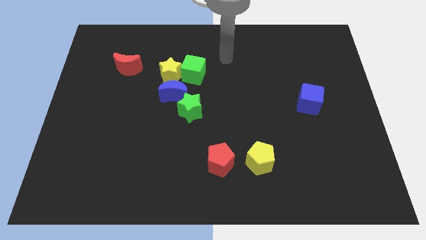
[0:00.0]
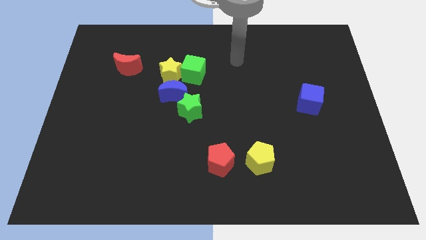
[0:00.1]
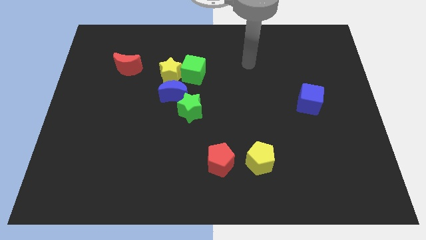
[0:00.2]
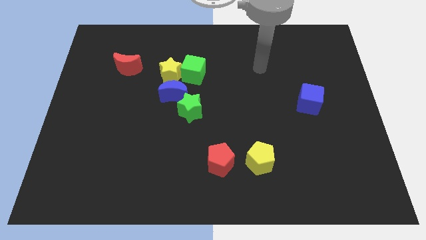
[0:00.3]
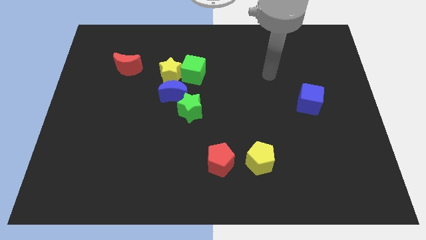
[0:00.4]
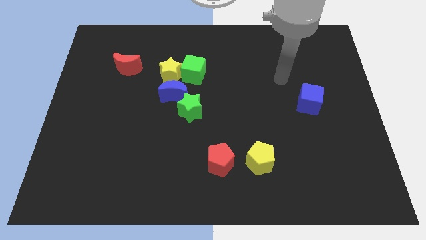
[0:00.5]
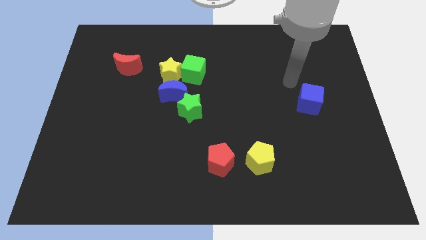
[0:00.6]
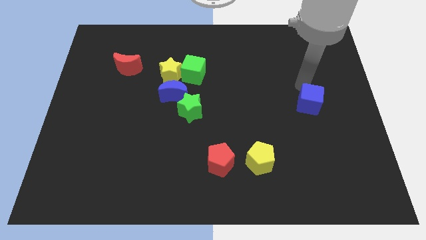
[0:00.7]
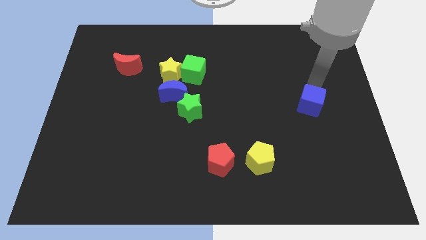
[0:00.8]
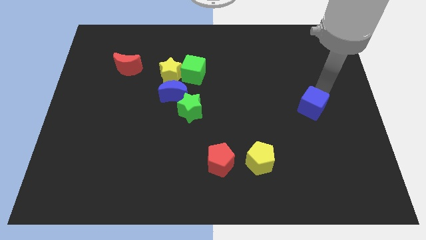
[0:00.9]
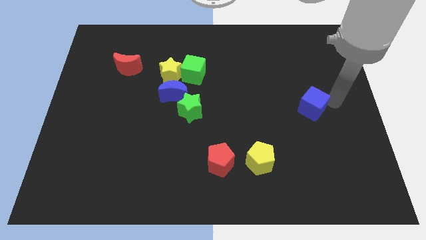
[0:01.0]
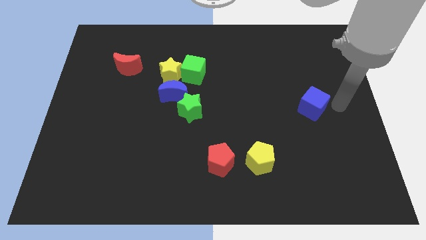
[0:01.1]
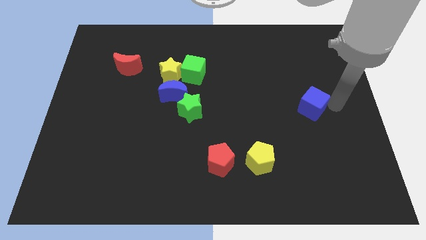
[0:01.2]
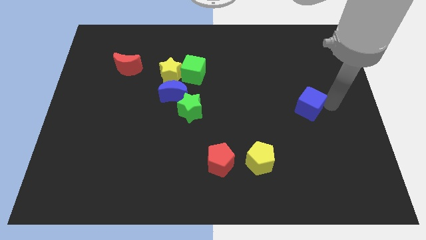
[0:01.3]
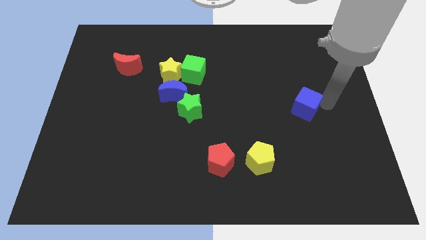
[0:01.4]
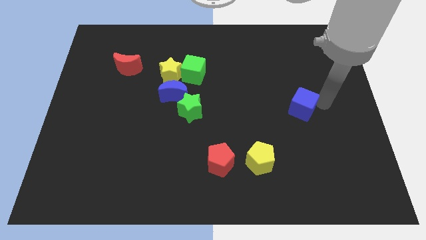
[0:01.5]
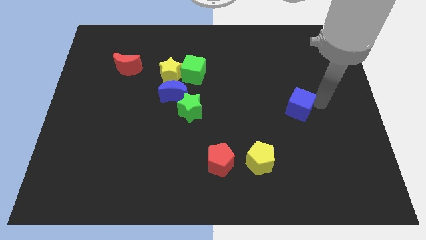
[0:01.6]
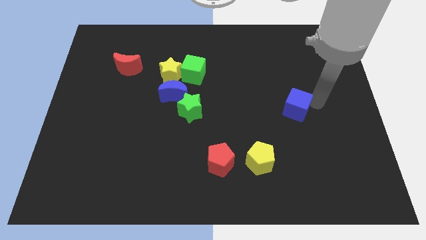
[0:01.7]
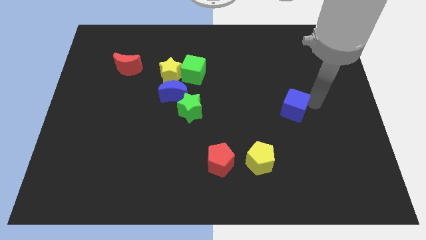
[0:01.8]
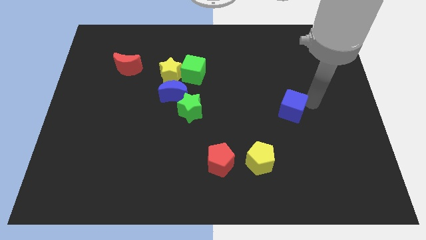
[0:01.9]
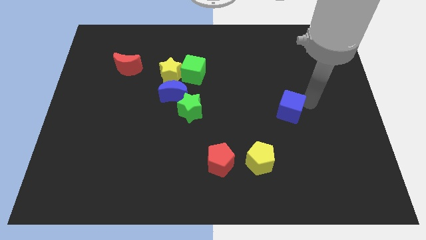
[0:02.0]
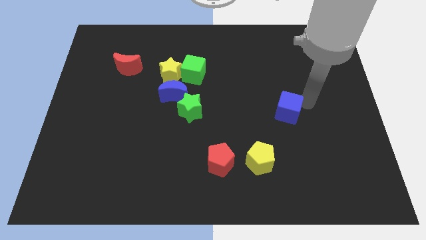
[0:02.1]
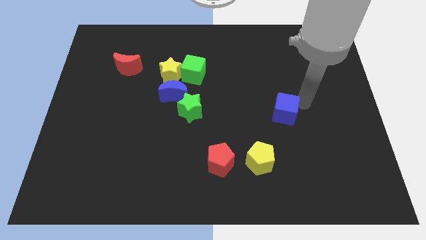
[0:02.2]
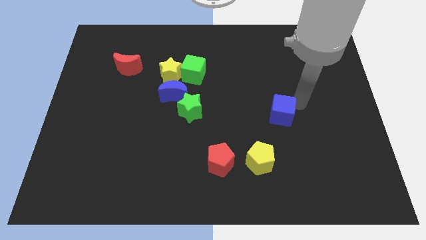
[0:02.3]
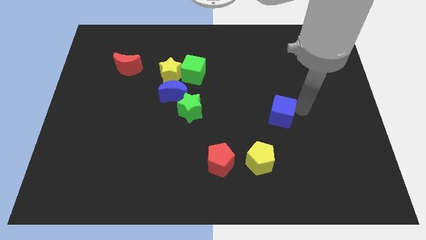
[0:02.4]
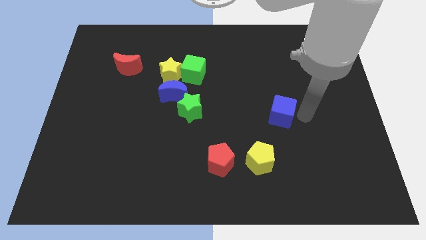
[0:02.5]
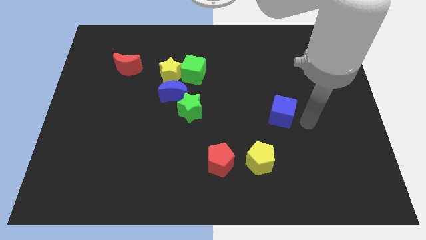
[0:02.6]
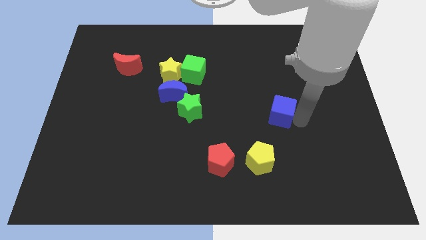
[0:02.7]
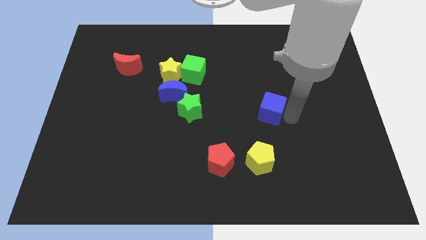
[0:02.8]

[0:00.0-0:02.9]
slightly move the blue cube left

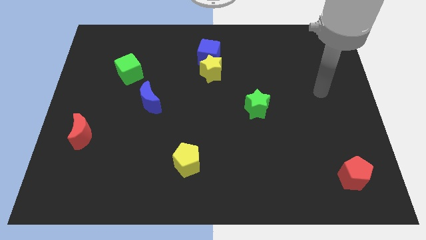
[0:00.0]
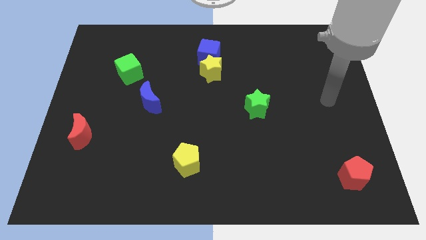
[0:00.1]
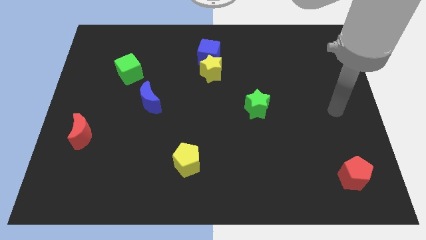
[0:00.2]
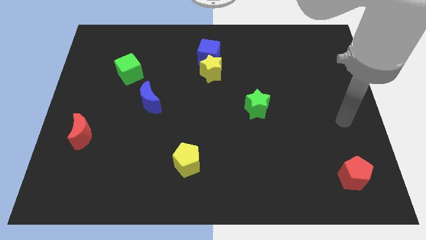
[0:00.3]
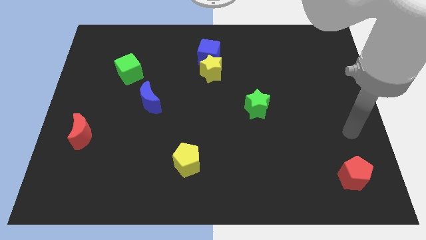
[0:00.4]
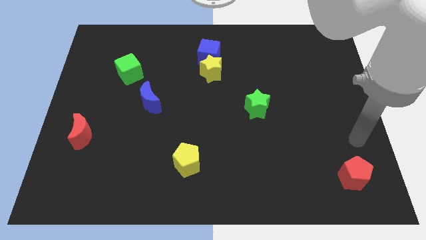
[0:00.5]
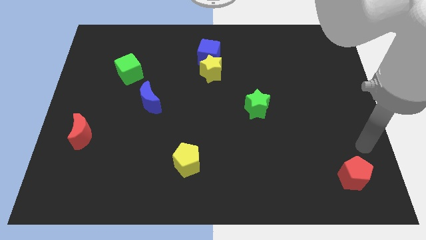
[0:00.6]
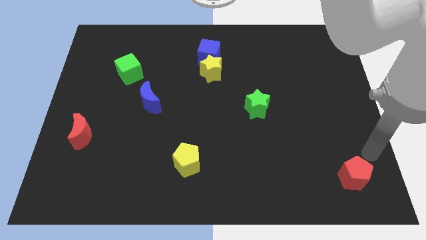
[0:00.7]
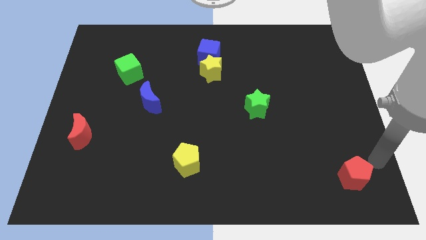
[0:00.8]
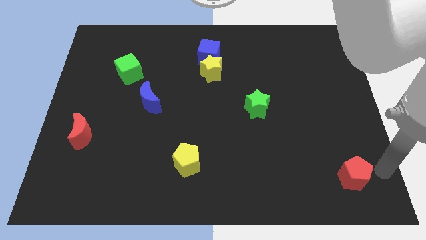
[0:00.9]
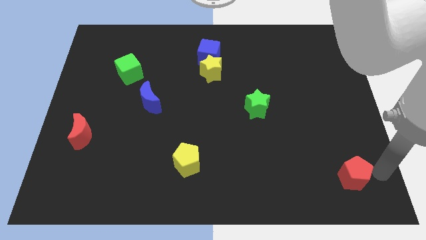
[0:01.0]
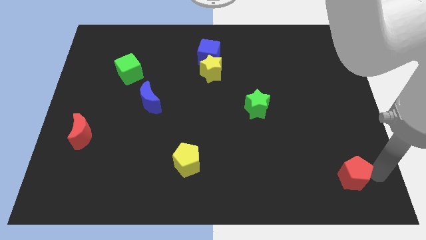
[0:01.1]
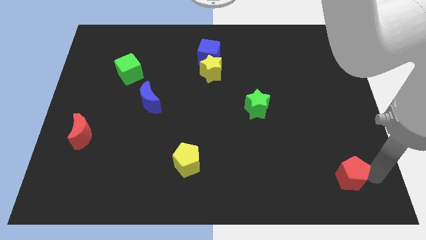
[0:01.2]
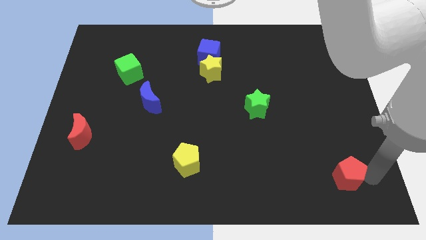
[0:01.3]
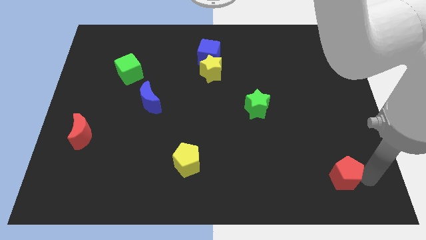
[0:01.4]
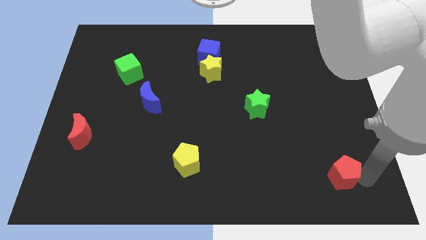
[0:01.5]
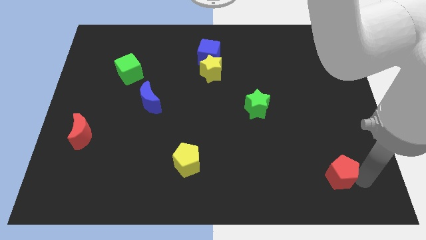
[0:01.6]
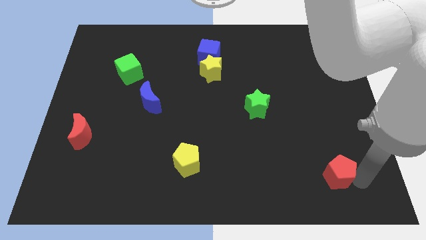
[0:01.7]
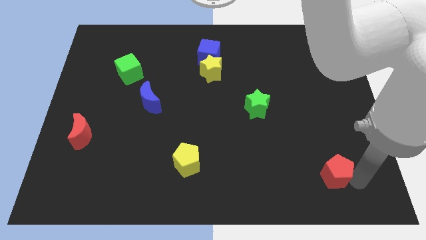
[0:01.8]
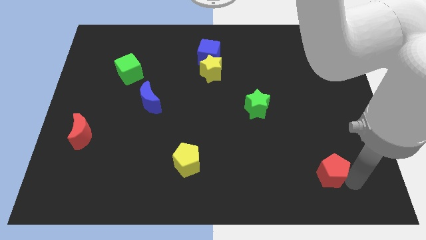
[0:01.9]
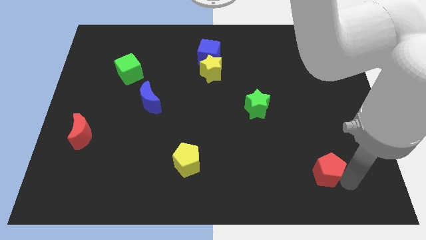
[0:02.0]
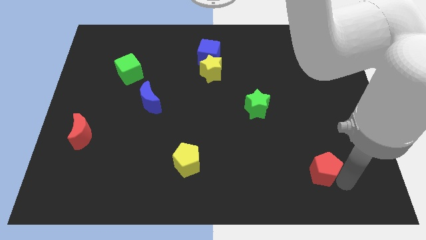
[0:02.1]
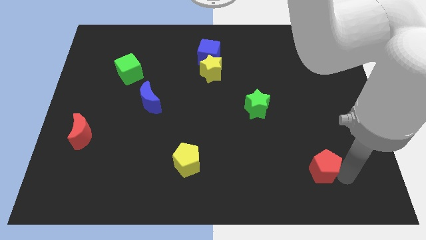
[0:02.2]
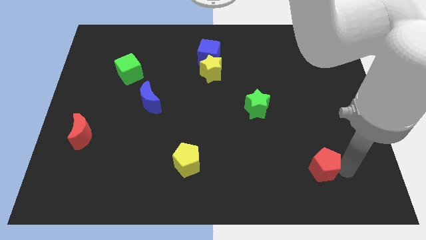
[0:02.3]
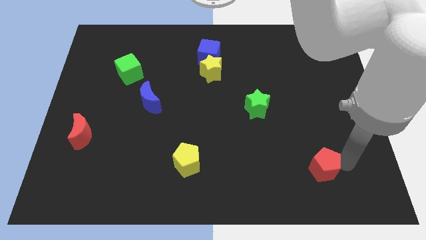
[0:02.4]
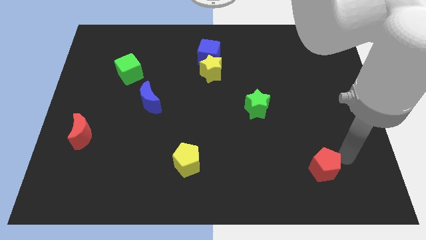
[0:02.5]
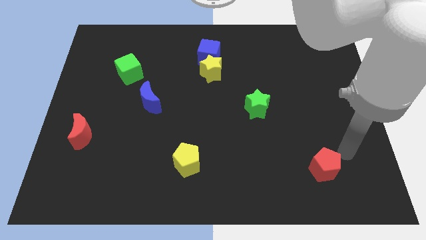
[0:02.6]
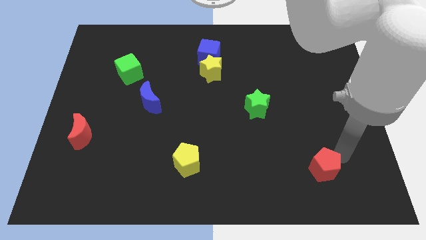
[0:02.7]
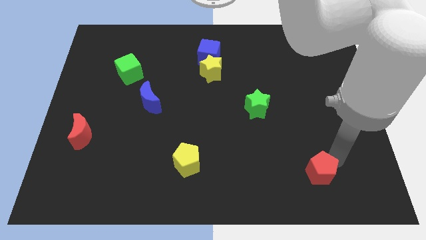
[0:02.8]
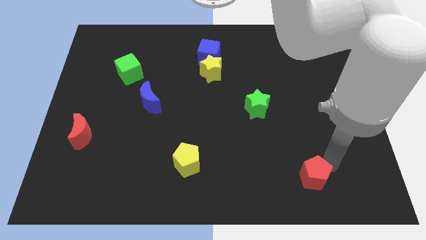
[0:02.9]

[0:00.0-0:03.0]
slide the red pentagon a bit left

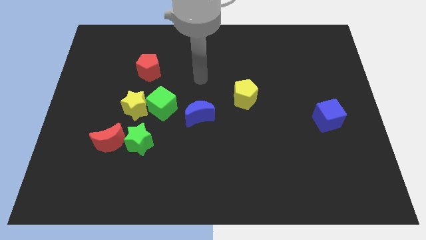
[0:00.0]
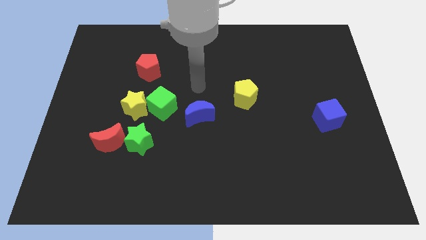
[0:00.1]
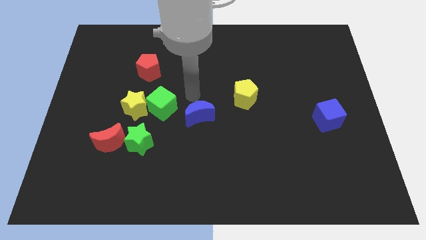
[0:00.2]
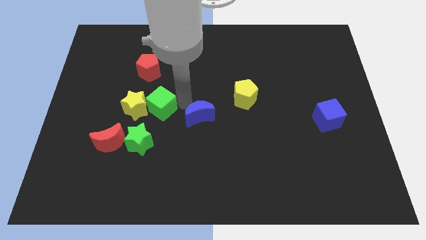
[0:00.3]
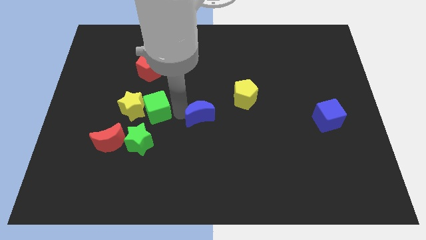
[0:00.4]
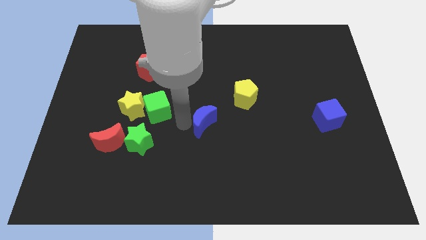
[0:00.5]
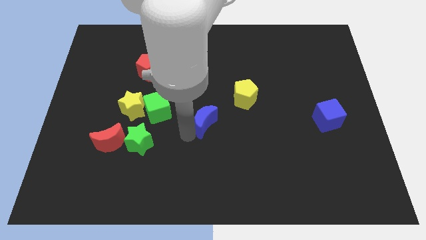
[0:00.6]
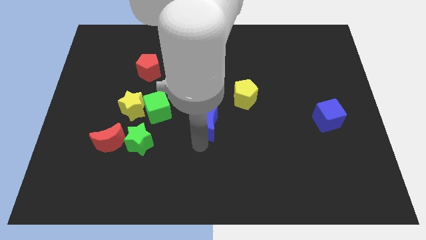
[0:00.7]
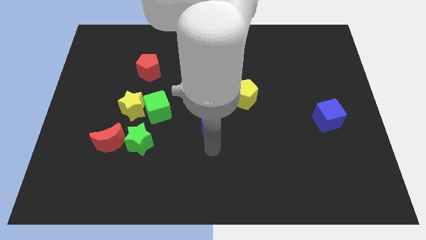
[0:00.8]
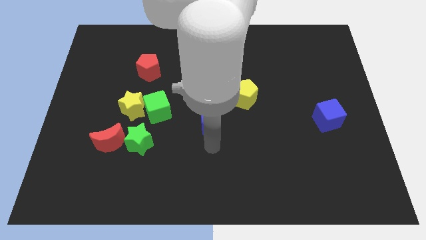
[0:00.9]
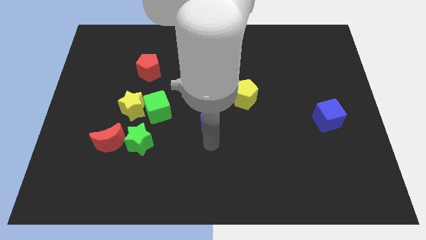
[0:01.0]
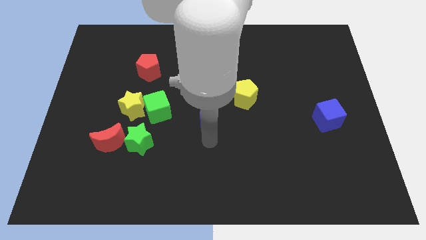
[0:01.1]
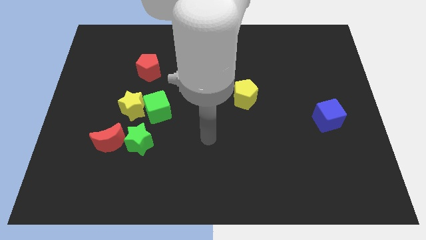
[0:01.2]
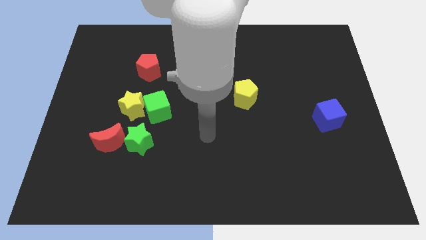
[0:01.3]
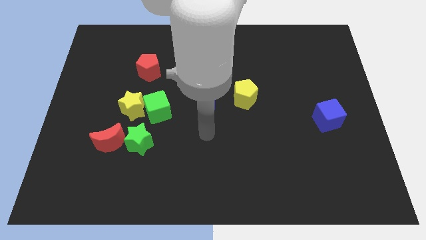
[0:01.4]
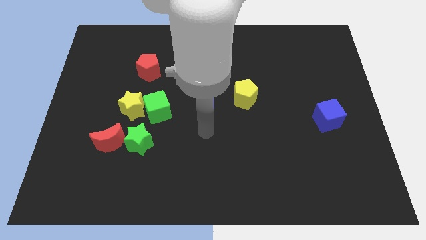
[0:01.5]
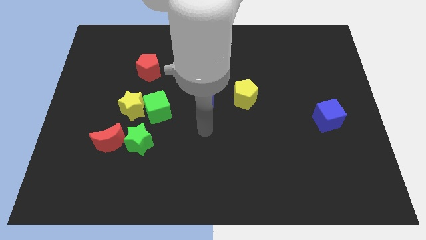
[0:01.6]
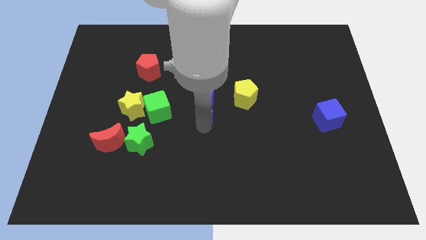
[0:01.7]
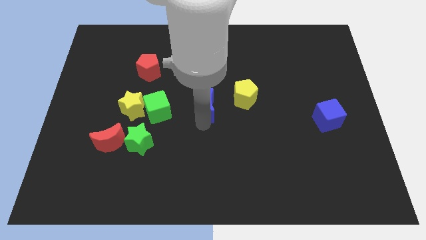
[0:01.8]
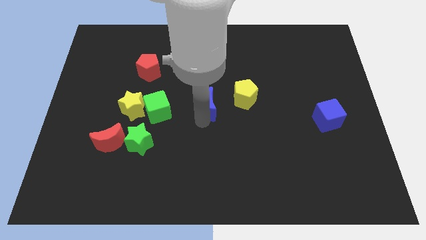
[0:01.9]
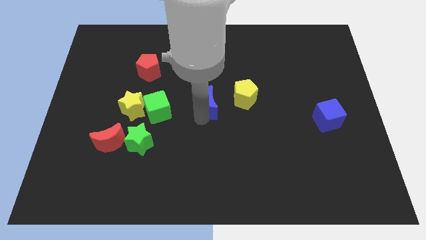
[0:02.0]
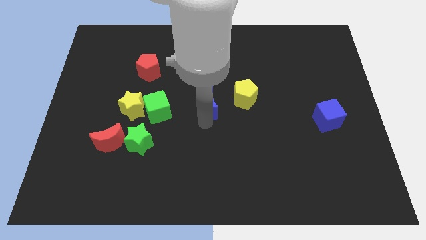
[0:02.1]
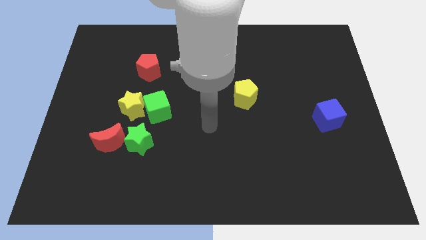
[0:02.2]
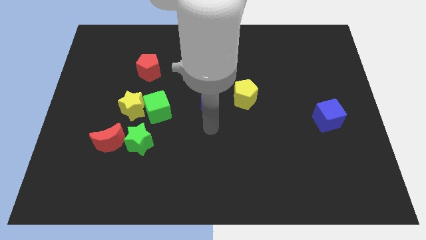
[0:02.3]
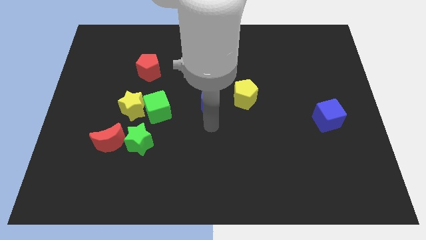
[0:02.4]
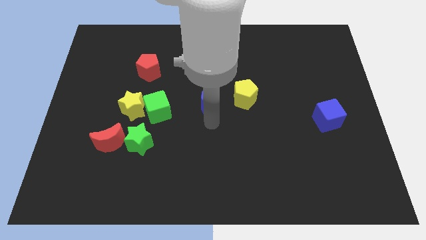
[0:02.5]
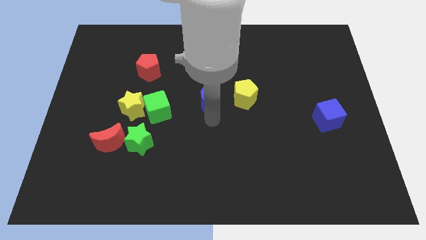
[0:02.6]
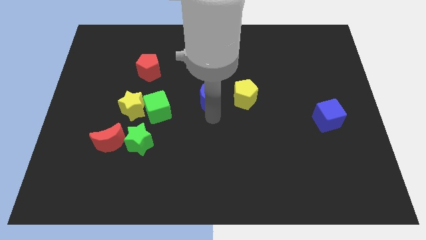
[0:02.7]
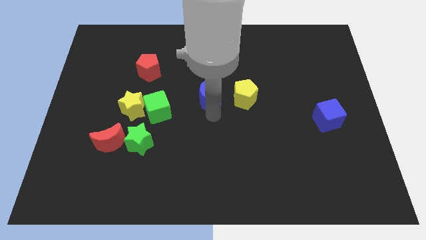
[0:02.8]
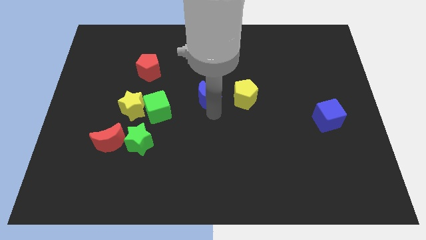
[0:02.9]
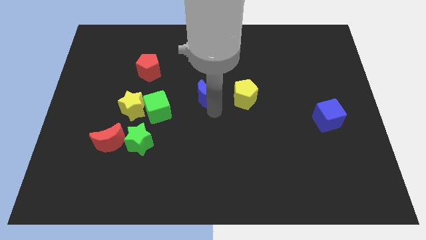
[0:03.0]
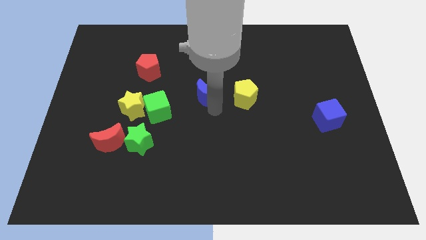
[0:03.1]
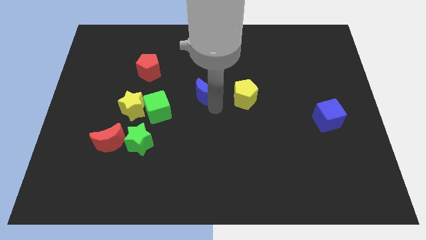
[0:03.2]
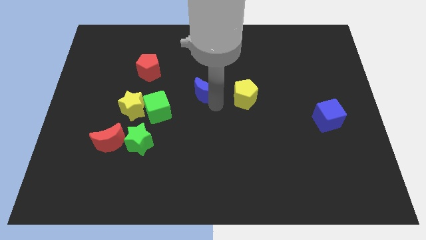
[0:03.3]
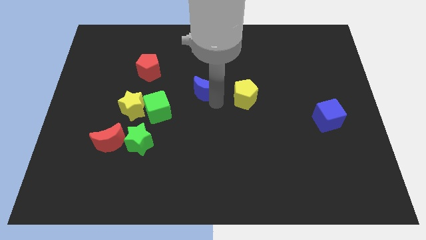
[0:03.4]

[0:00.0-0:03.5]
slightly move the blue moon up
